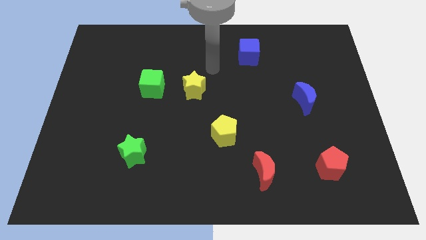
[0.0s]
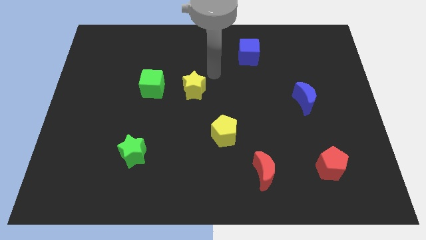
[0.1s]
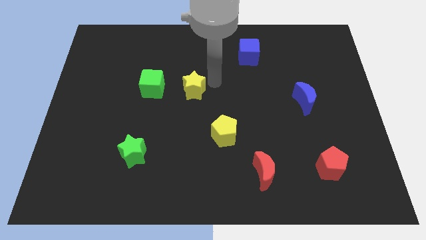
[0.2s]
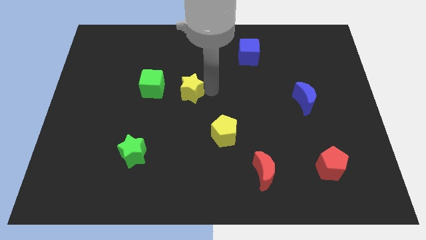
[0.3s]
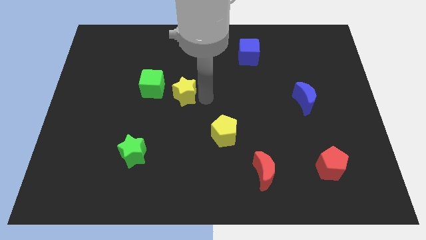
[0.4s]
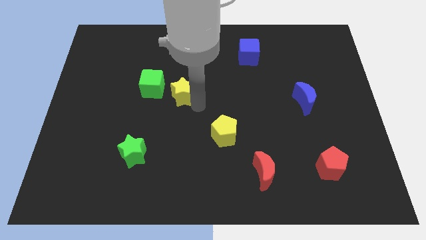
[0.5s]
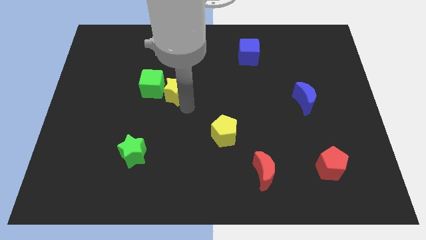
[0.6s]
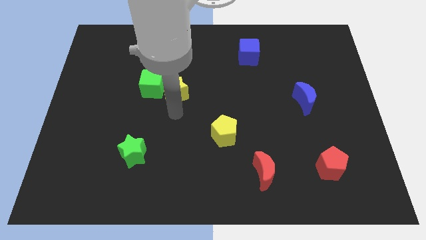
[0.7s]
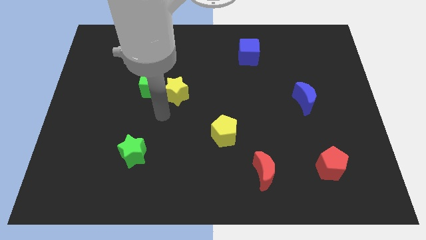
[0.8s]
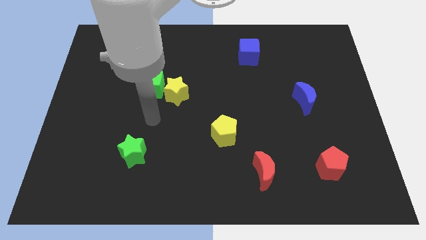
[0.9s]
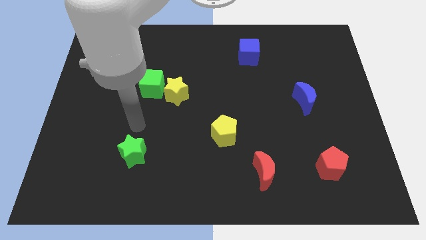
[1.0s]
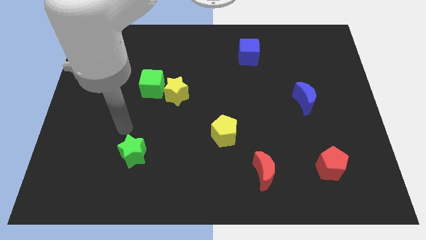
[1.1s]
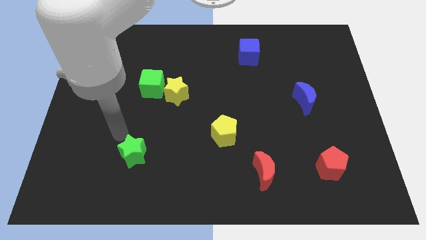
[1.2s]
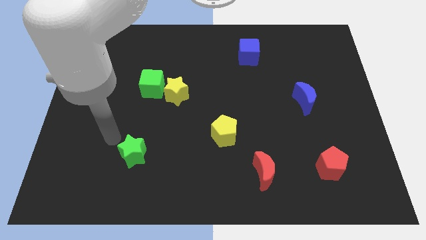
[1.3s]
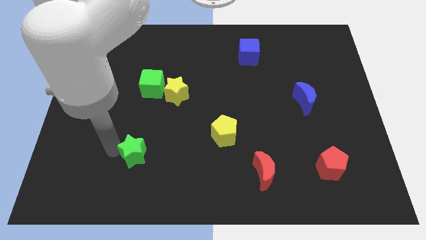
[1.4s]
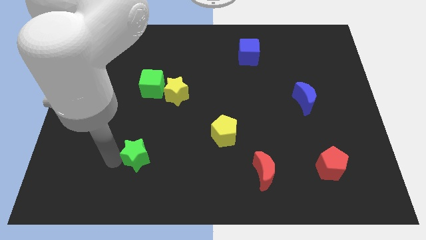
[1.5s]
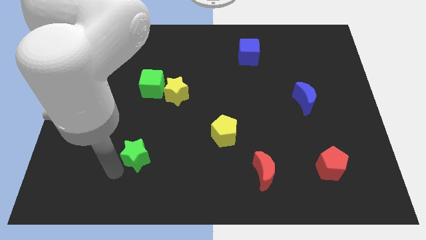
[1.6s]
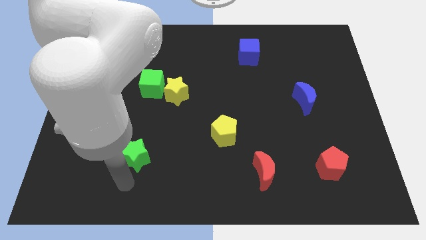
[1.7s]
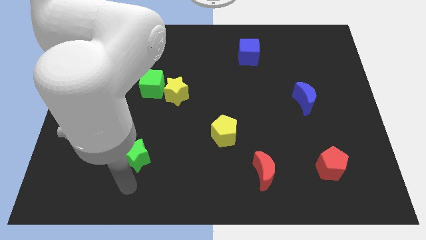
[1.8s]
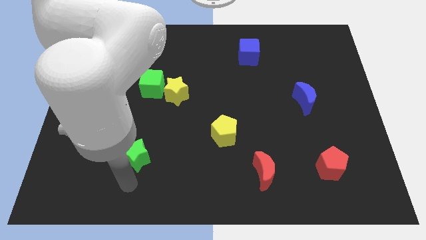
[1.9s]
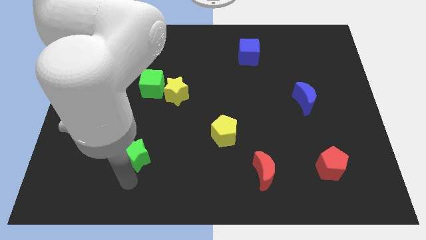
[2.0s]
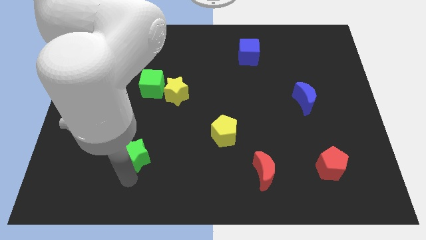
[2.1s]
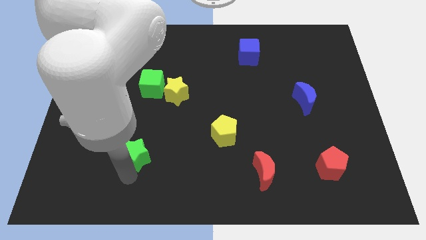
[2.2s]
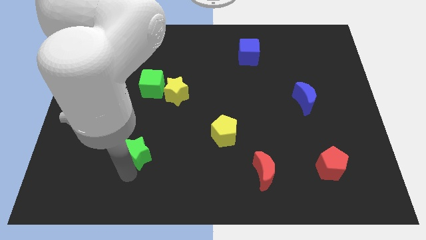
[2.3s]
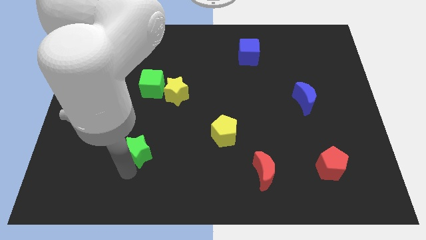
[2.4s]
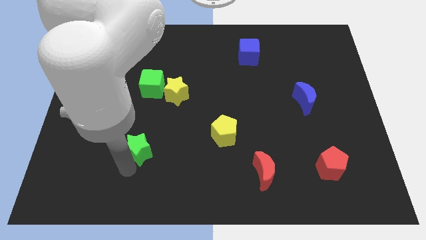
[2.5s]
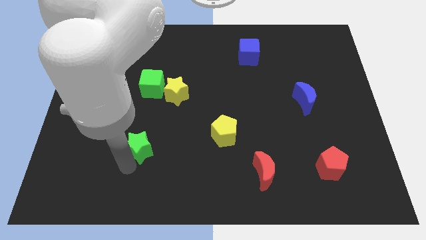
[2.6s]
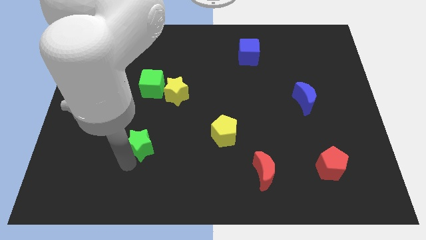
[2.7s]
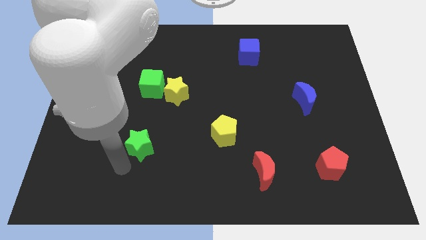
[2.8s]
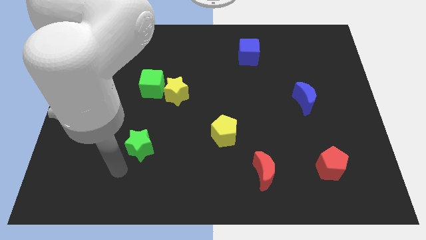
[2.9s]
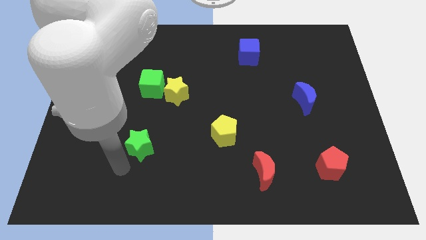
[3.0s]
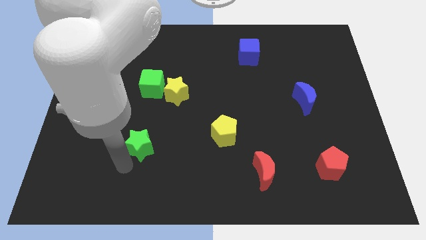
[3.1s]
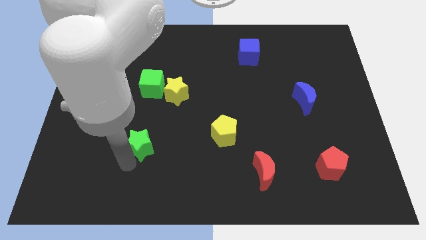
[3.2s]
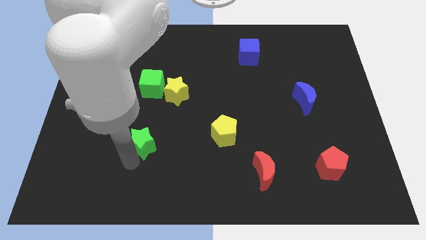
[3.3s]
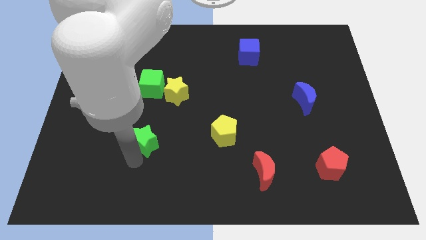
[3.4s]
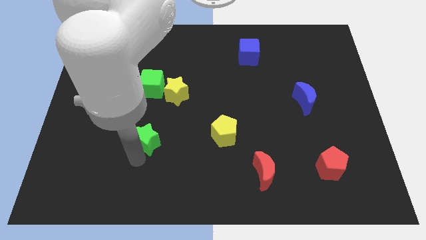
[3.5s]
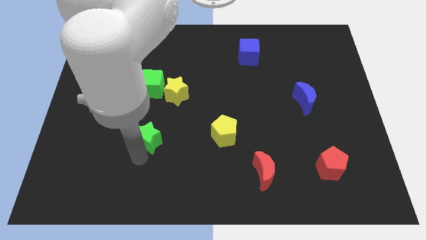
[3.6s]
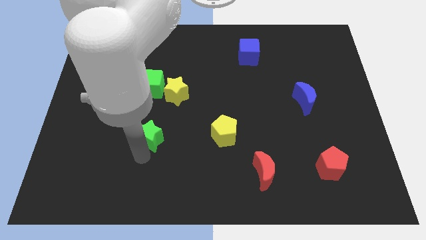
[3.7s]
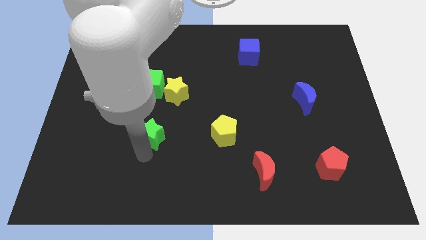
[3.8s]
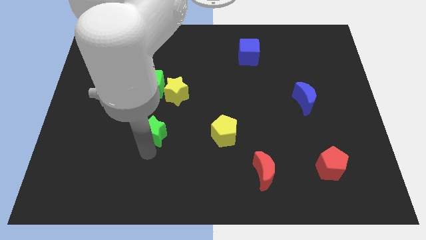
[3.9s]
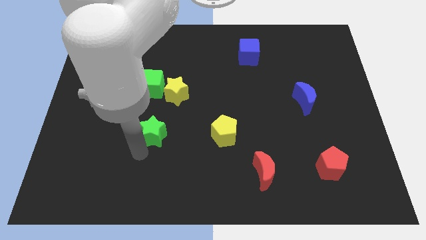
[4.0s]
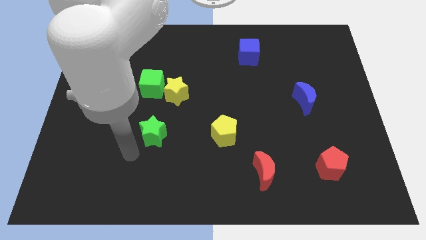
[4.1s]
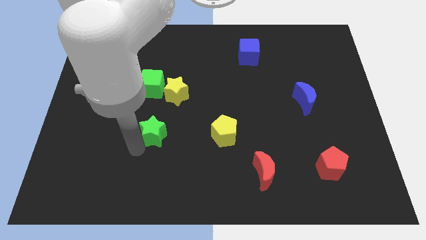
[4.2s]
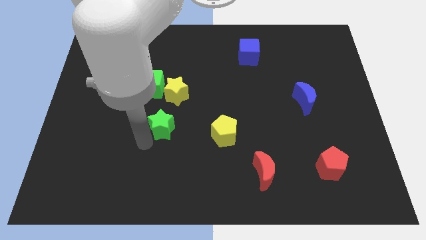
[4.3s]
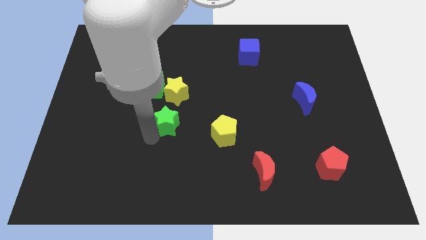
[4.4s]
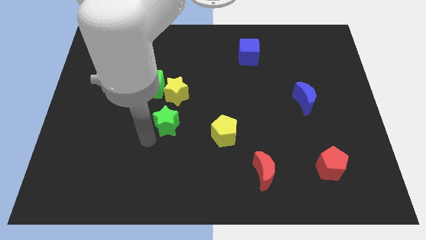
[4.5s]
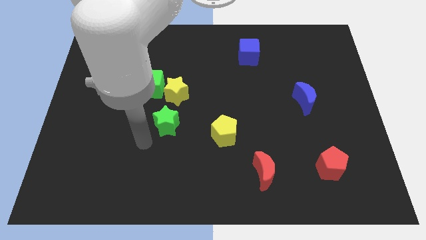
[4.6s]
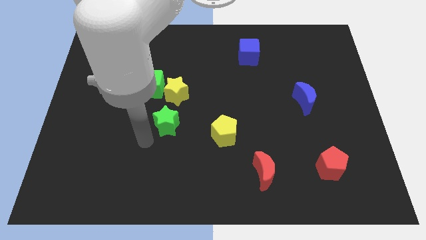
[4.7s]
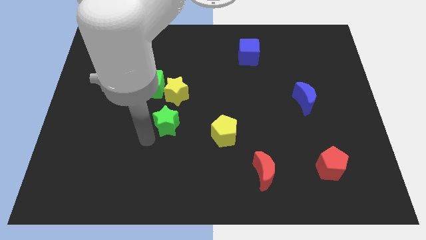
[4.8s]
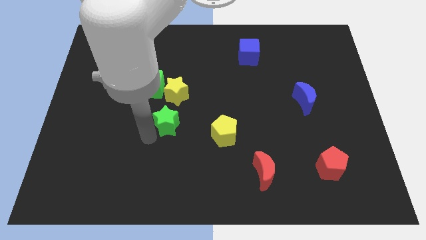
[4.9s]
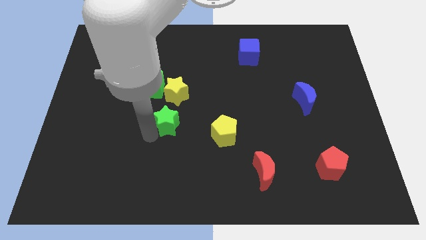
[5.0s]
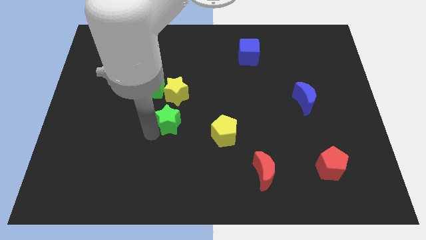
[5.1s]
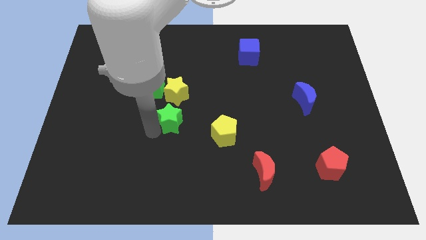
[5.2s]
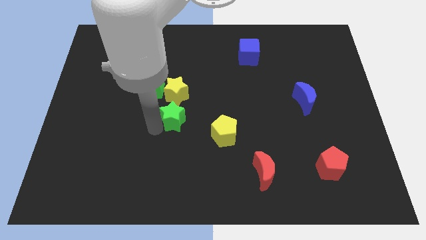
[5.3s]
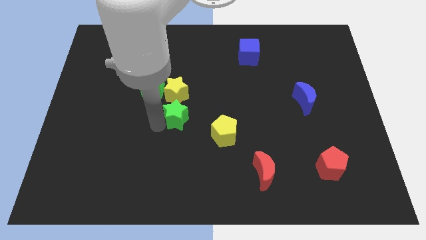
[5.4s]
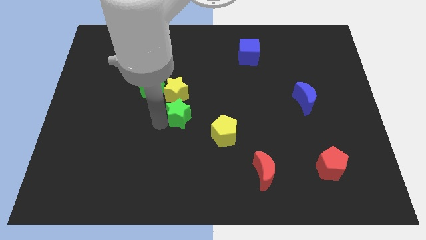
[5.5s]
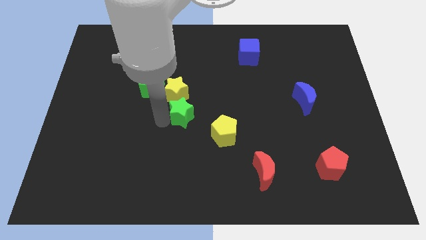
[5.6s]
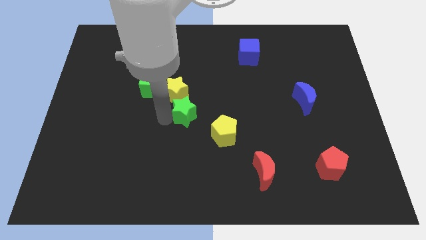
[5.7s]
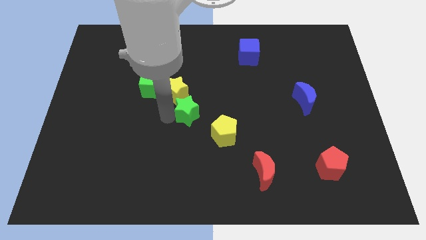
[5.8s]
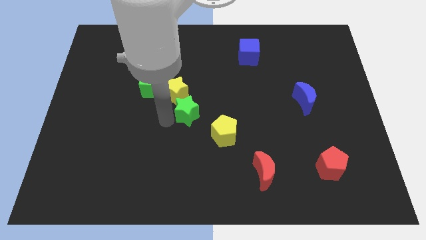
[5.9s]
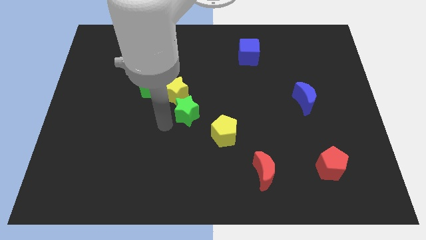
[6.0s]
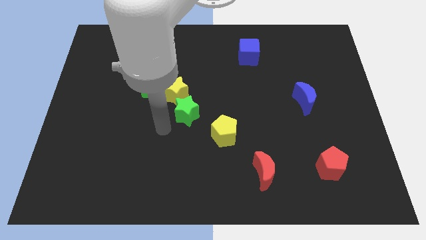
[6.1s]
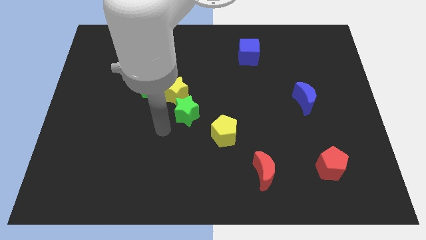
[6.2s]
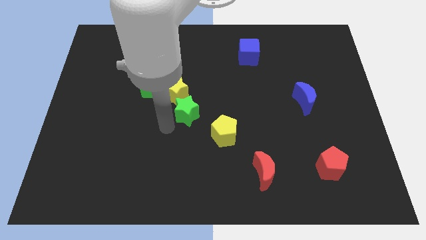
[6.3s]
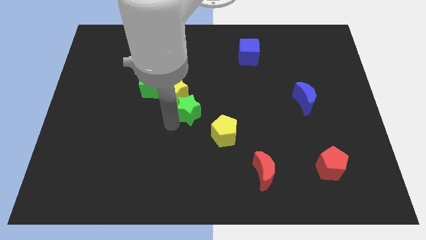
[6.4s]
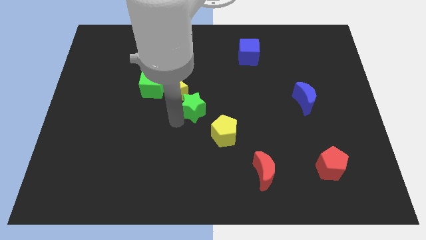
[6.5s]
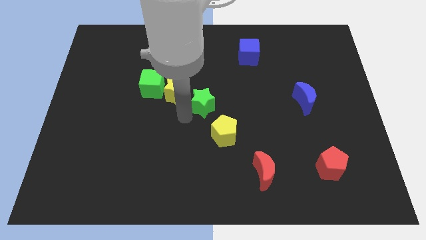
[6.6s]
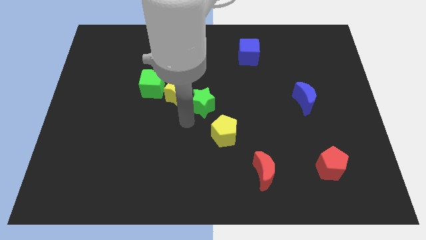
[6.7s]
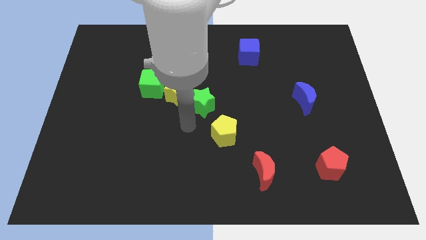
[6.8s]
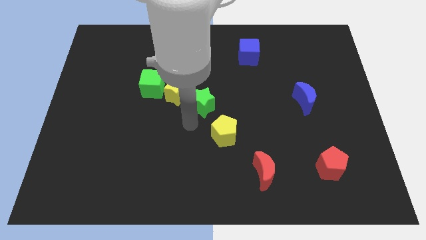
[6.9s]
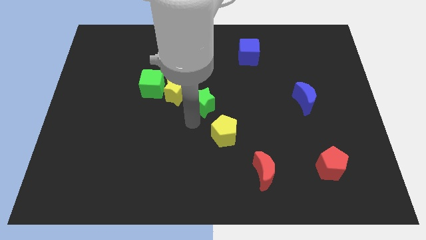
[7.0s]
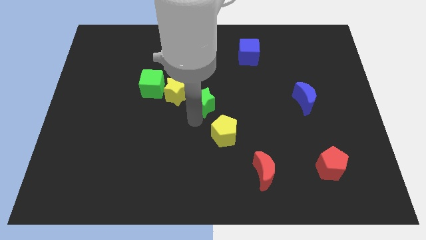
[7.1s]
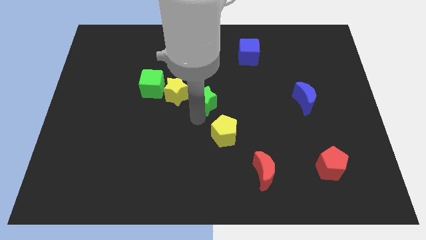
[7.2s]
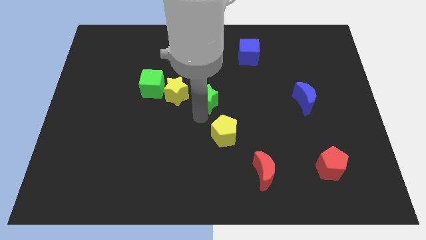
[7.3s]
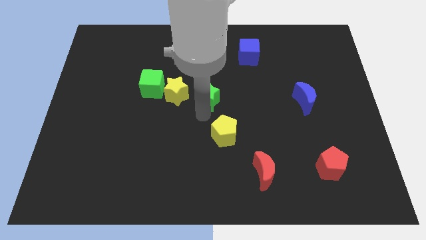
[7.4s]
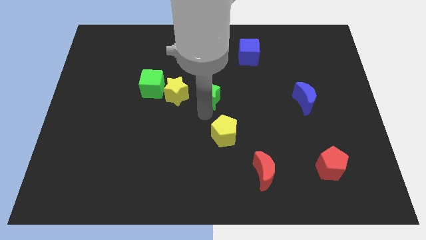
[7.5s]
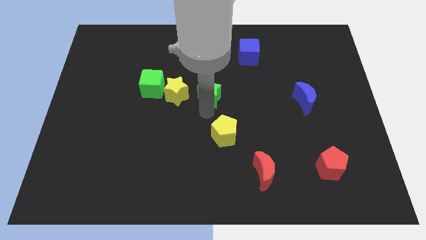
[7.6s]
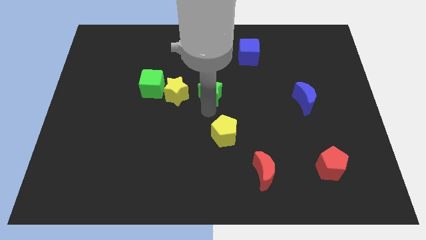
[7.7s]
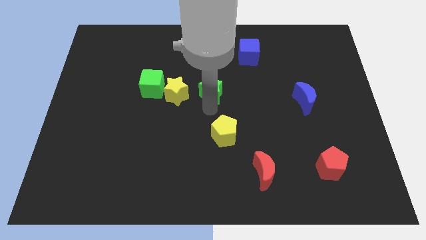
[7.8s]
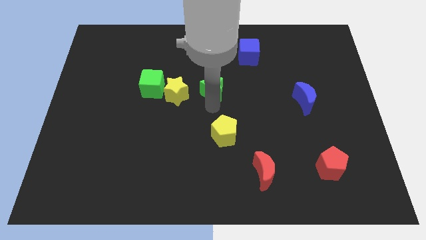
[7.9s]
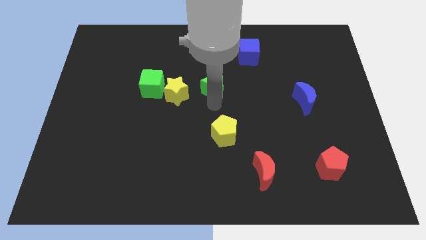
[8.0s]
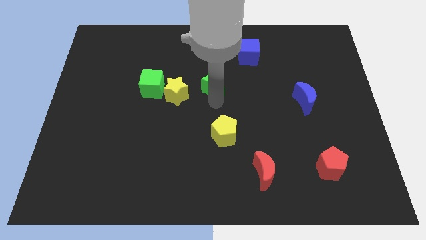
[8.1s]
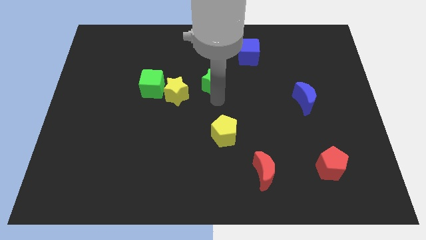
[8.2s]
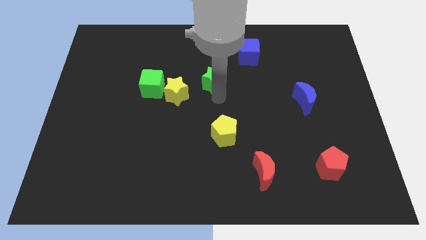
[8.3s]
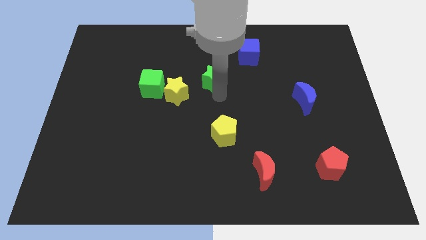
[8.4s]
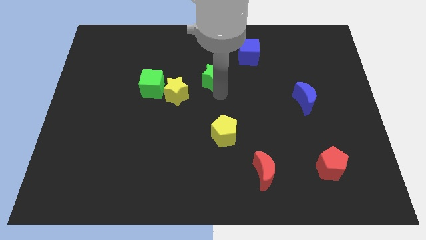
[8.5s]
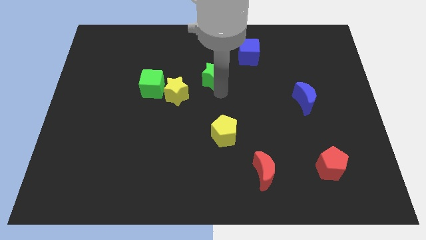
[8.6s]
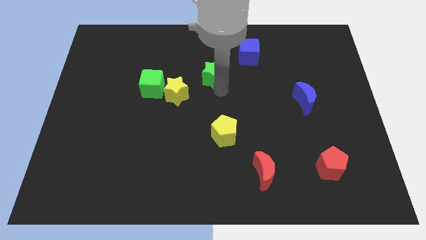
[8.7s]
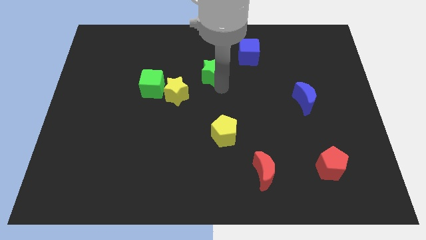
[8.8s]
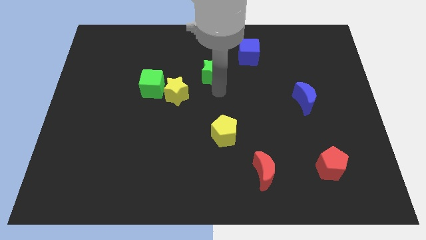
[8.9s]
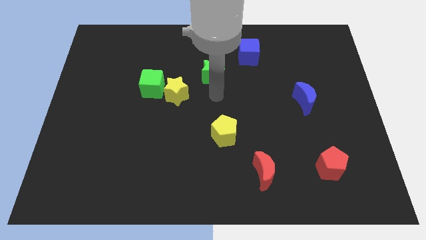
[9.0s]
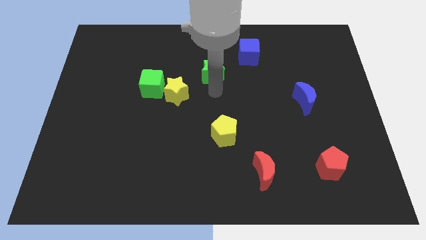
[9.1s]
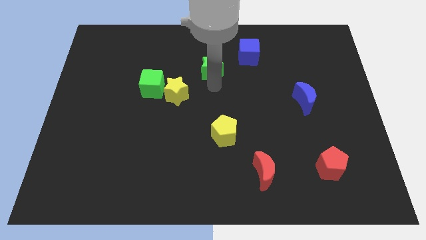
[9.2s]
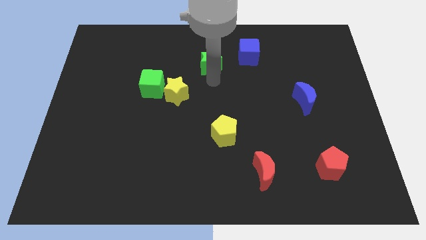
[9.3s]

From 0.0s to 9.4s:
move the green star just left of the blue cube
